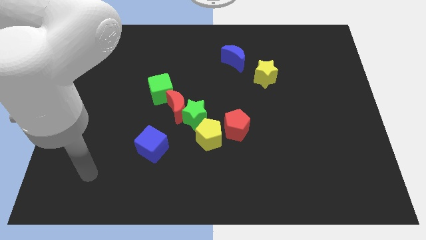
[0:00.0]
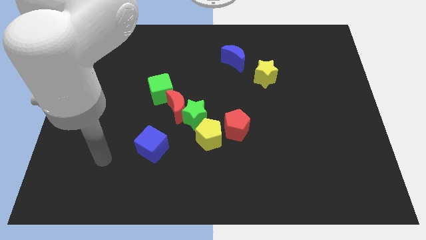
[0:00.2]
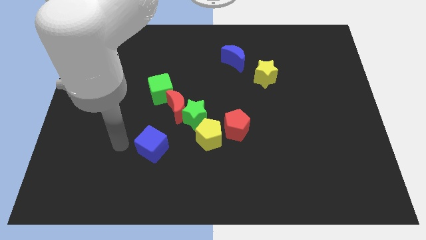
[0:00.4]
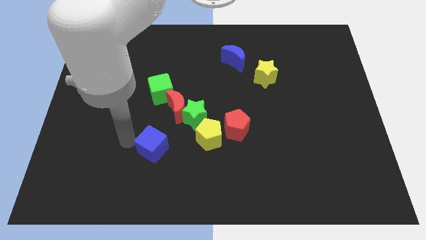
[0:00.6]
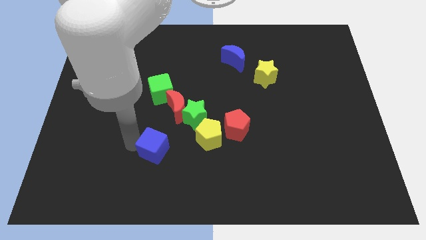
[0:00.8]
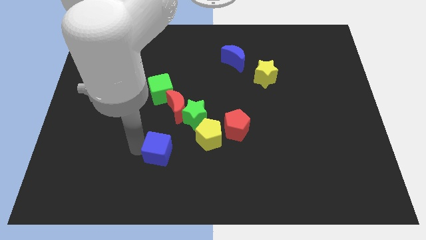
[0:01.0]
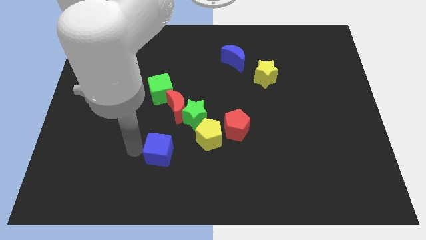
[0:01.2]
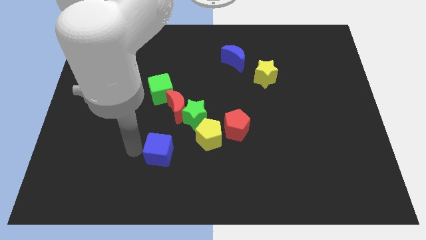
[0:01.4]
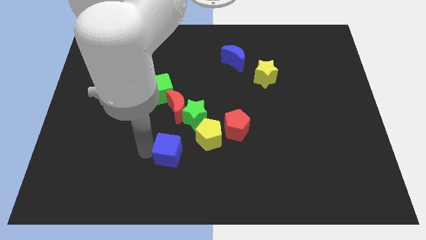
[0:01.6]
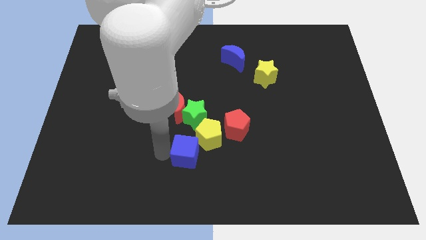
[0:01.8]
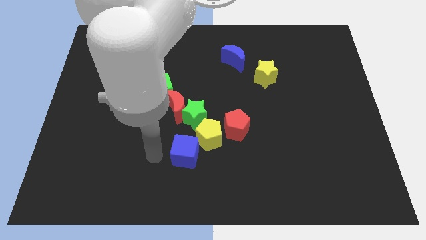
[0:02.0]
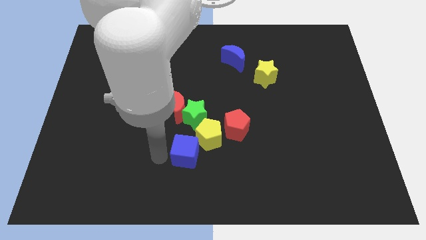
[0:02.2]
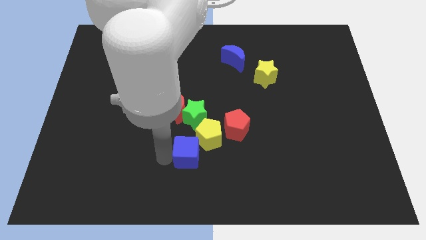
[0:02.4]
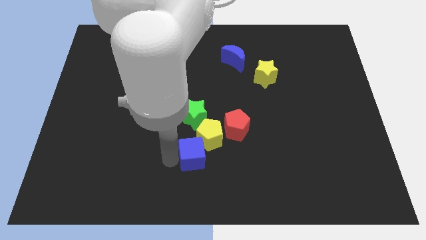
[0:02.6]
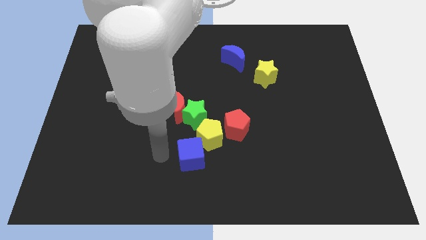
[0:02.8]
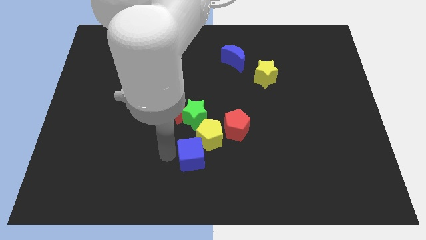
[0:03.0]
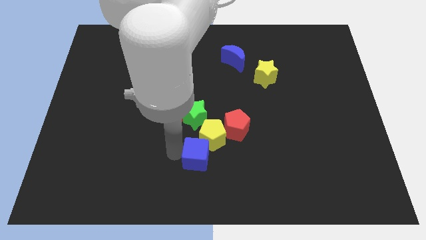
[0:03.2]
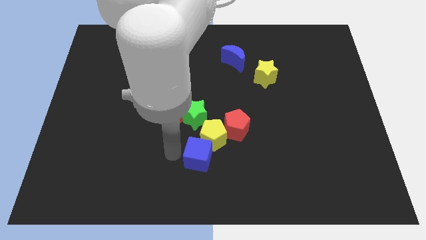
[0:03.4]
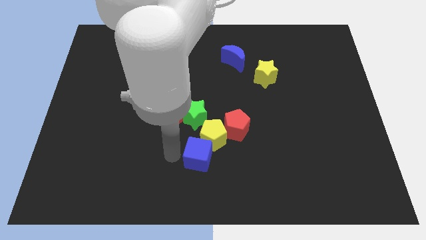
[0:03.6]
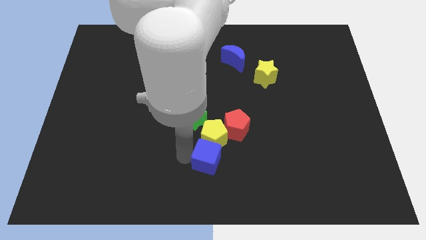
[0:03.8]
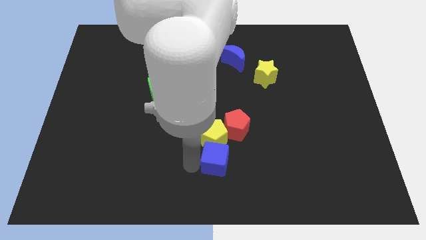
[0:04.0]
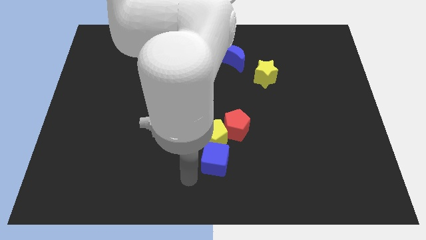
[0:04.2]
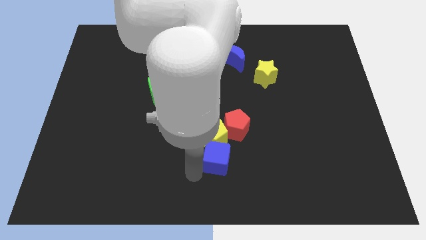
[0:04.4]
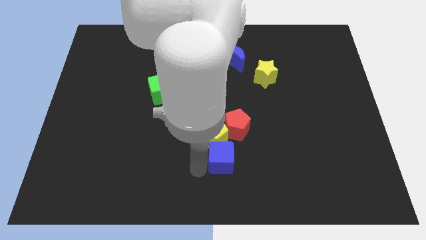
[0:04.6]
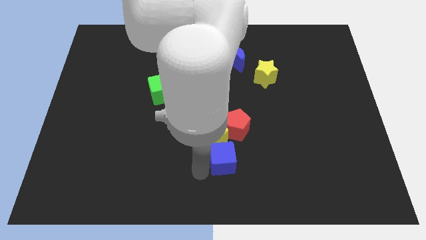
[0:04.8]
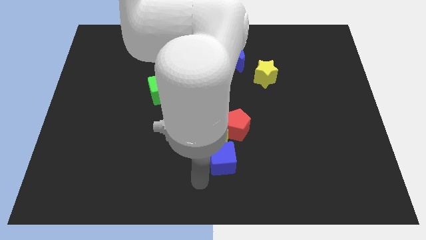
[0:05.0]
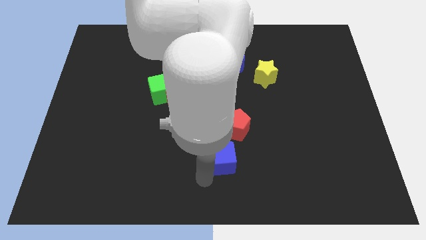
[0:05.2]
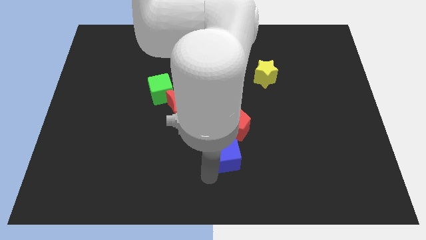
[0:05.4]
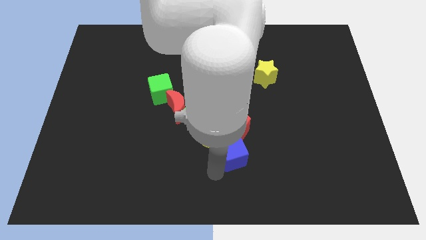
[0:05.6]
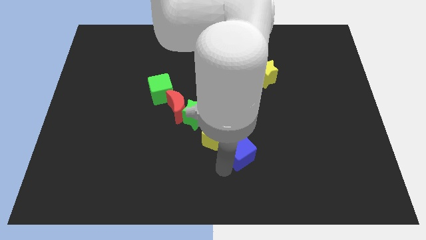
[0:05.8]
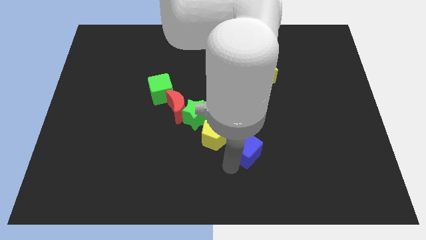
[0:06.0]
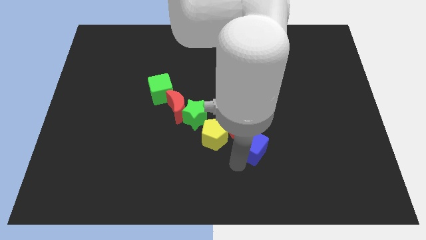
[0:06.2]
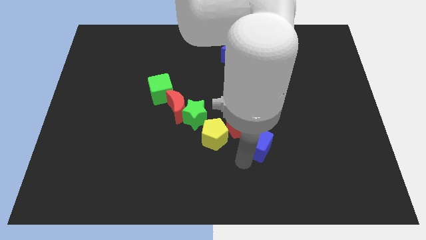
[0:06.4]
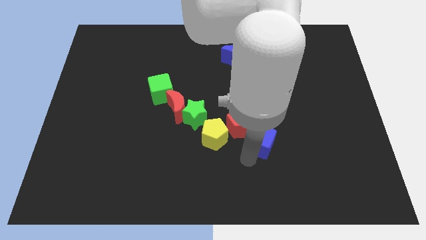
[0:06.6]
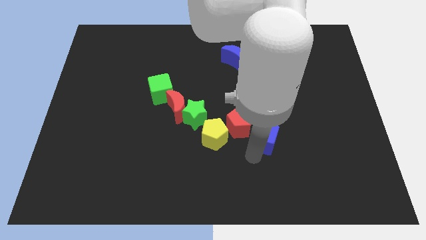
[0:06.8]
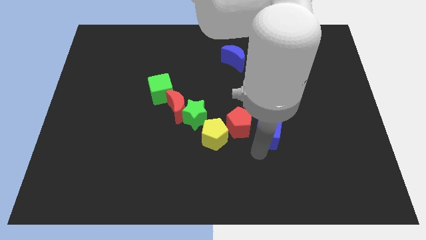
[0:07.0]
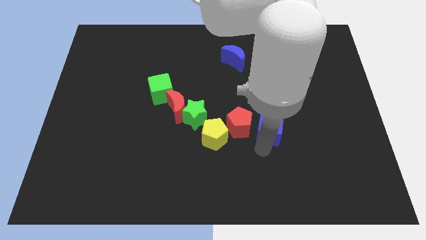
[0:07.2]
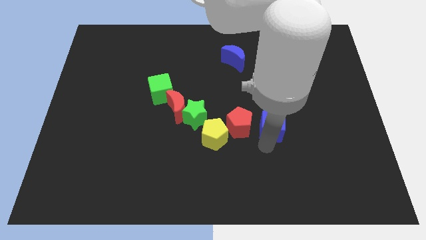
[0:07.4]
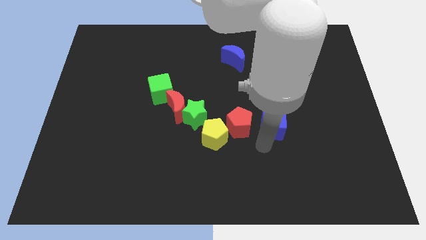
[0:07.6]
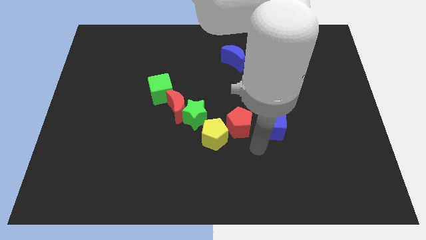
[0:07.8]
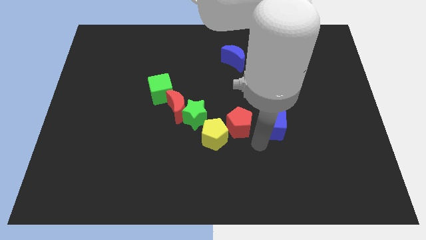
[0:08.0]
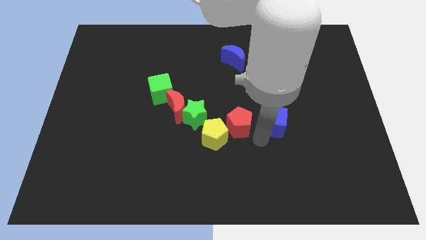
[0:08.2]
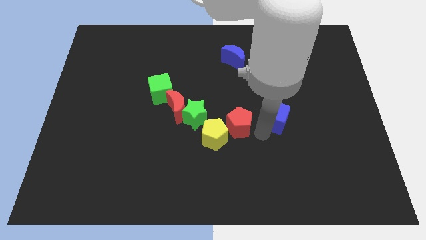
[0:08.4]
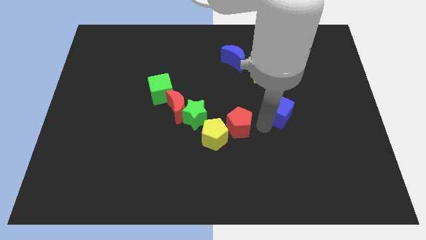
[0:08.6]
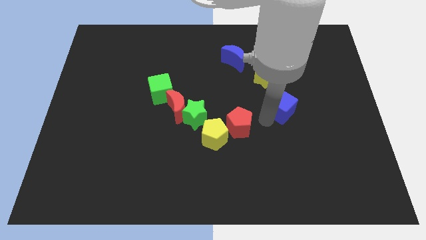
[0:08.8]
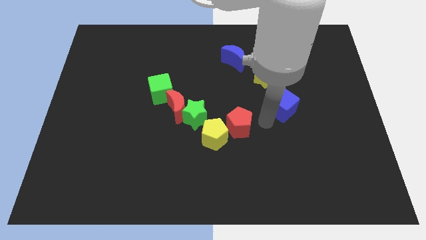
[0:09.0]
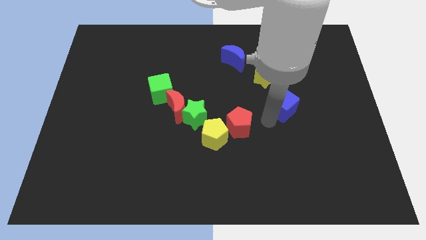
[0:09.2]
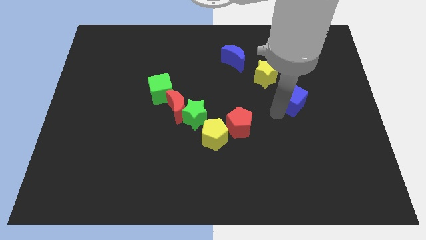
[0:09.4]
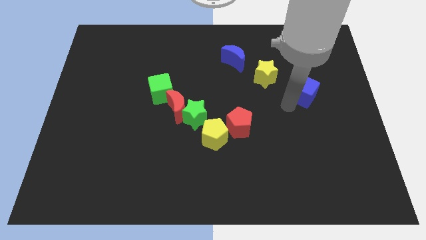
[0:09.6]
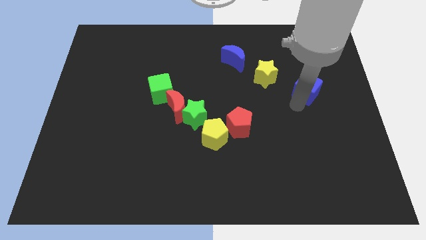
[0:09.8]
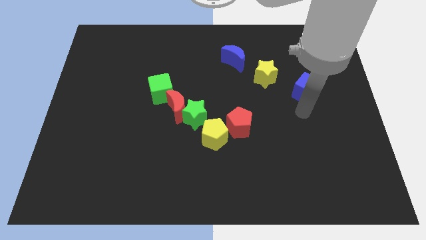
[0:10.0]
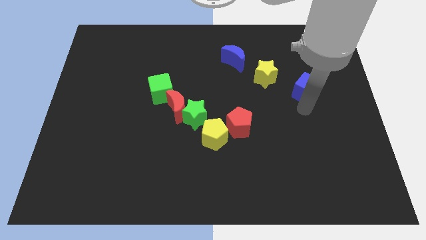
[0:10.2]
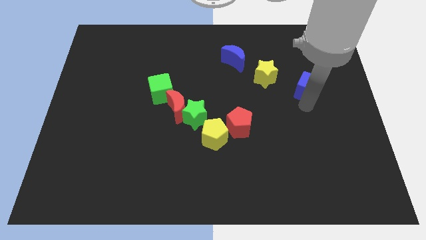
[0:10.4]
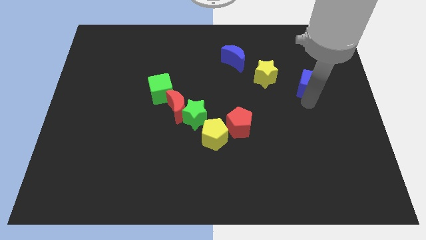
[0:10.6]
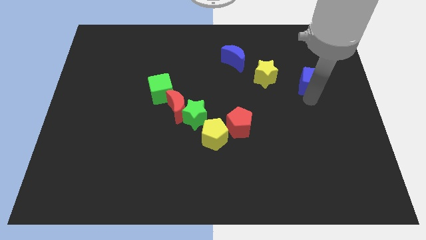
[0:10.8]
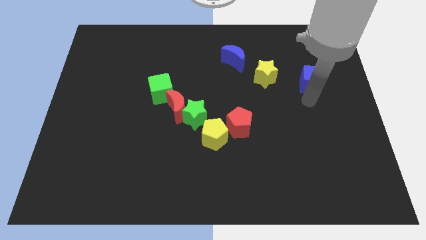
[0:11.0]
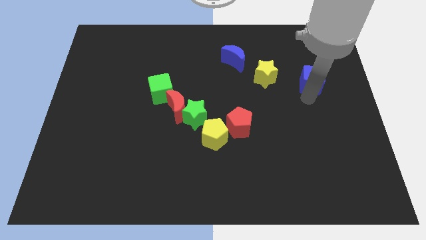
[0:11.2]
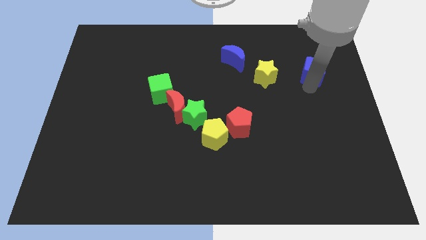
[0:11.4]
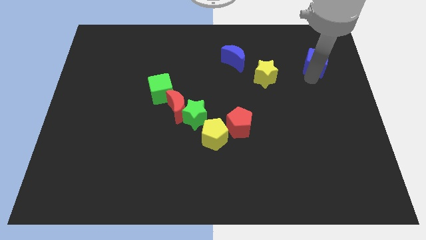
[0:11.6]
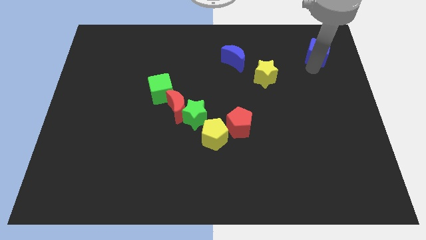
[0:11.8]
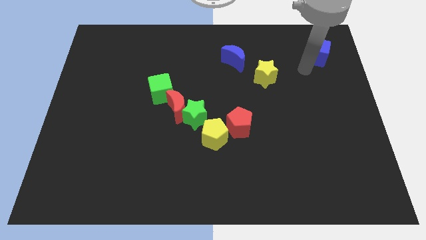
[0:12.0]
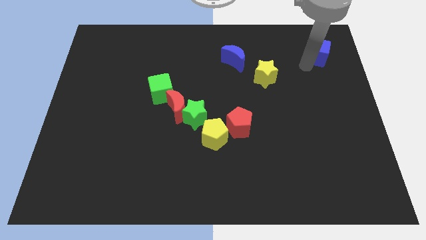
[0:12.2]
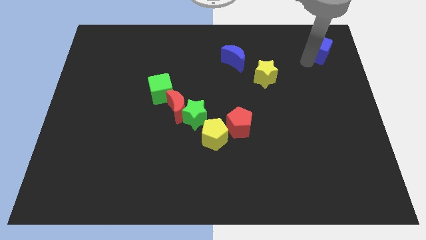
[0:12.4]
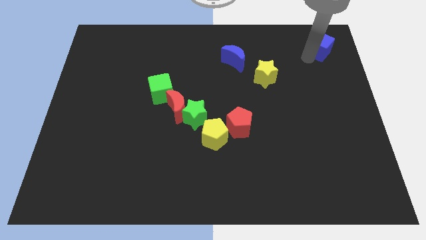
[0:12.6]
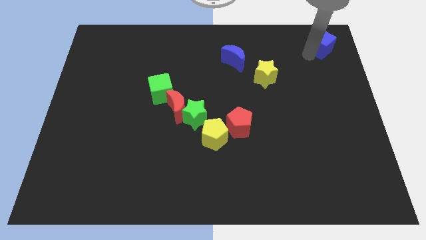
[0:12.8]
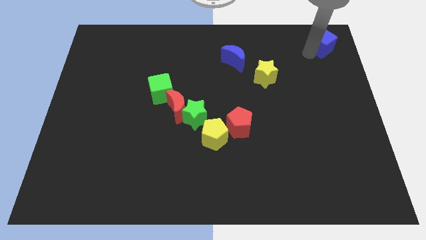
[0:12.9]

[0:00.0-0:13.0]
push the blue cube to the top right of the board
